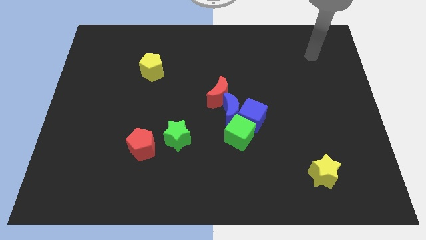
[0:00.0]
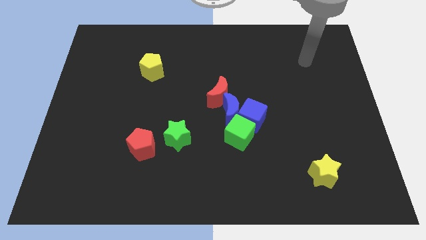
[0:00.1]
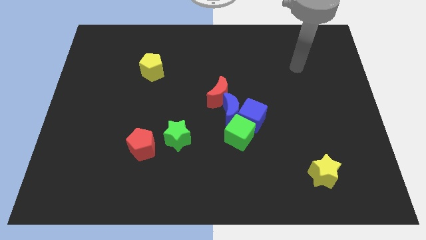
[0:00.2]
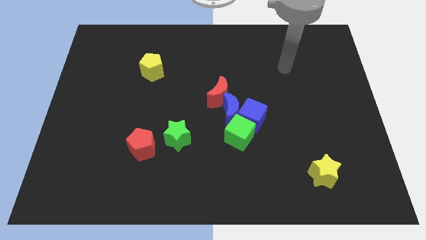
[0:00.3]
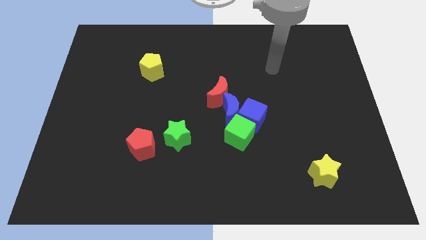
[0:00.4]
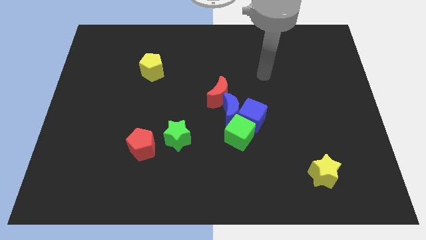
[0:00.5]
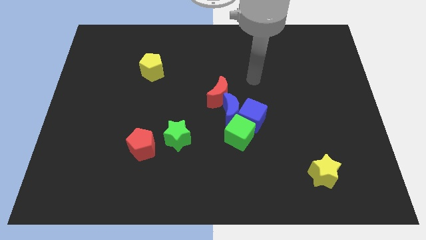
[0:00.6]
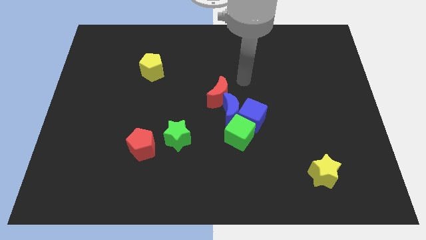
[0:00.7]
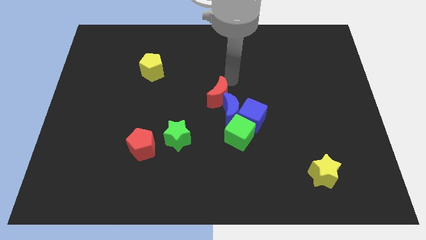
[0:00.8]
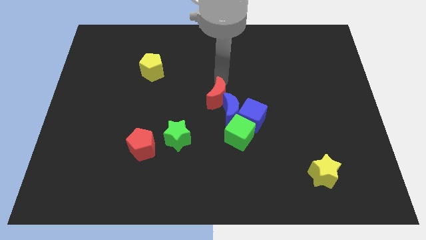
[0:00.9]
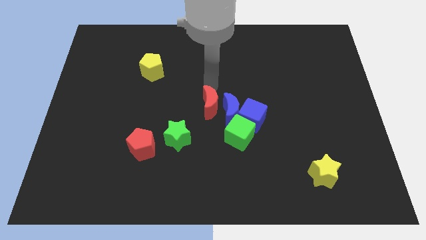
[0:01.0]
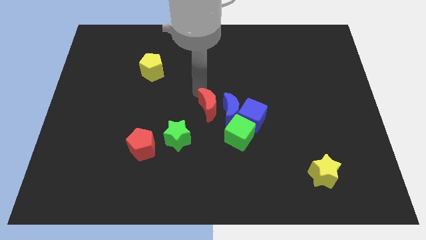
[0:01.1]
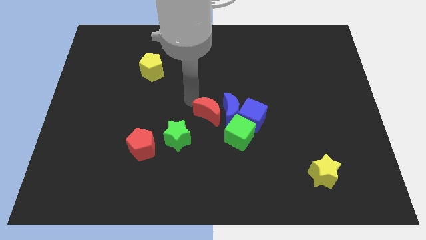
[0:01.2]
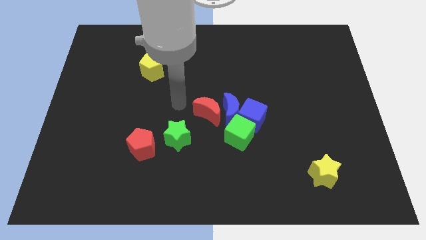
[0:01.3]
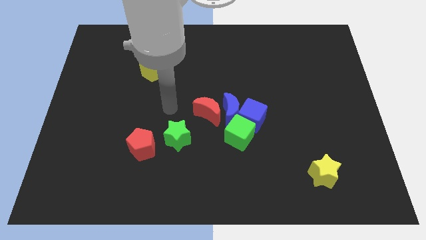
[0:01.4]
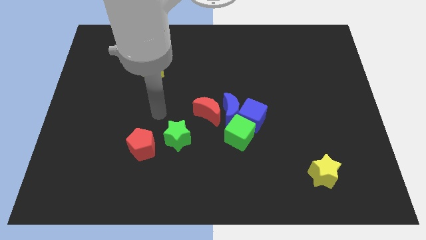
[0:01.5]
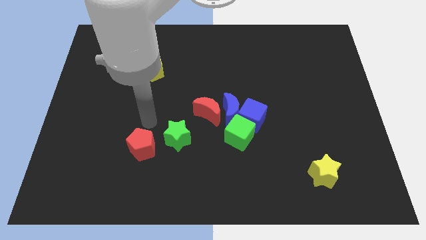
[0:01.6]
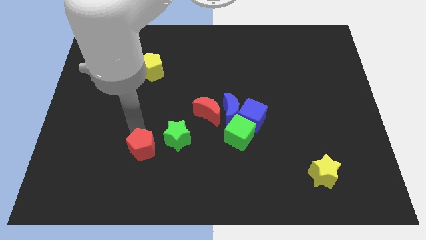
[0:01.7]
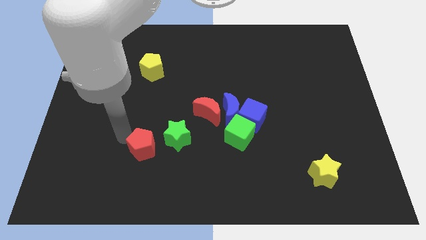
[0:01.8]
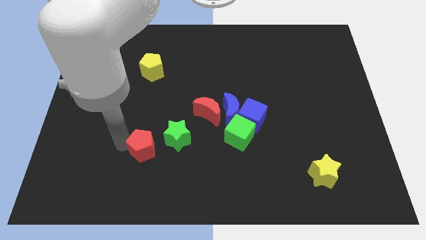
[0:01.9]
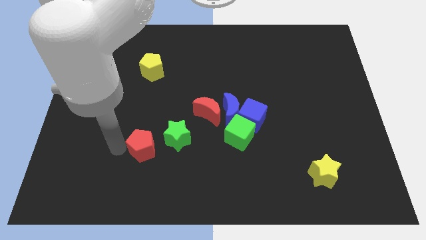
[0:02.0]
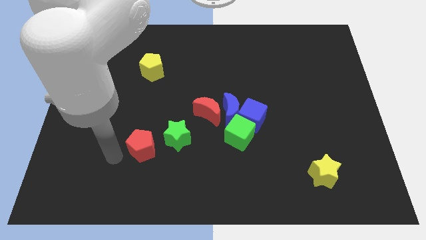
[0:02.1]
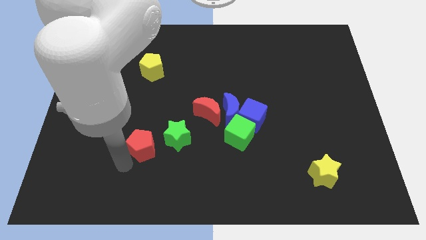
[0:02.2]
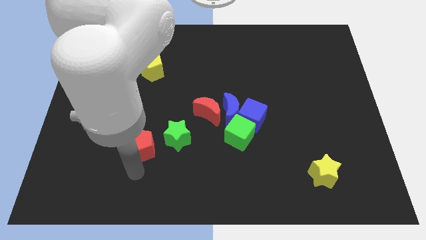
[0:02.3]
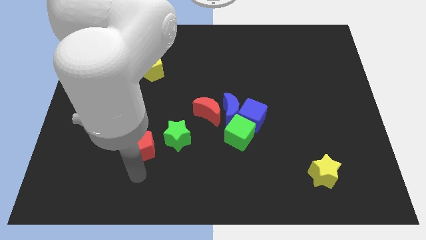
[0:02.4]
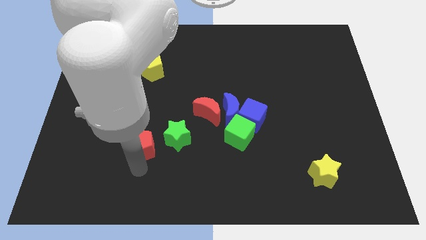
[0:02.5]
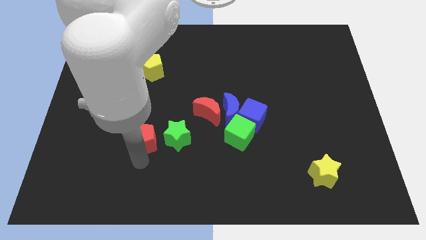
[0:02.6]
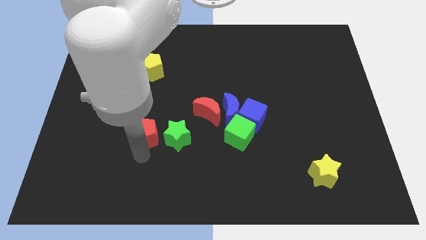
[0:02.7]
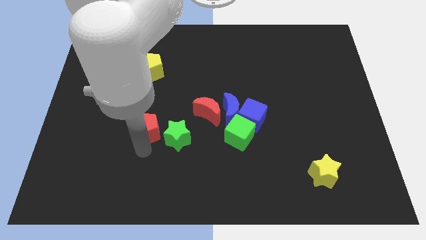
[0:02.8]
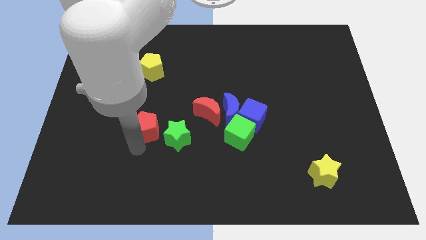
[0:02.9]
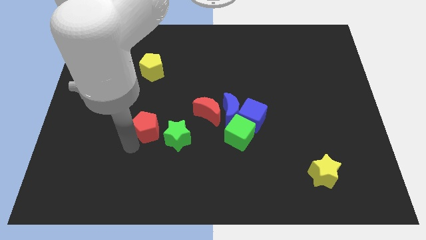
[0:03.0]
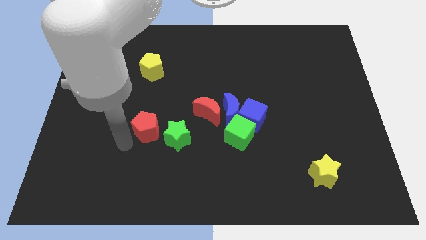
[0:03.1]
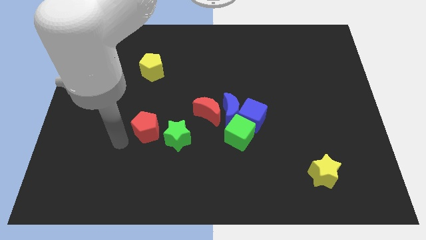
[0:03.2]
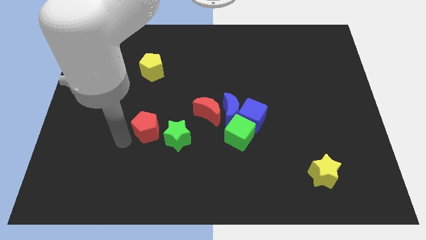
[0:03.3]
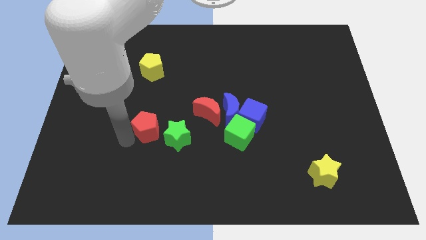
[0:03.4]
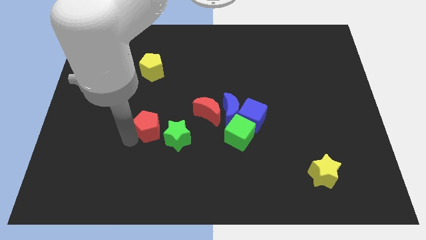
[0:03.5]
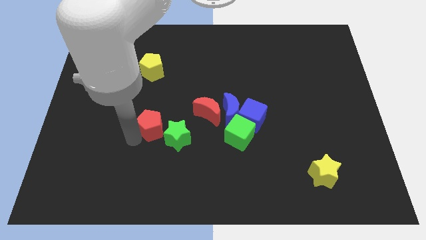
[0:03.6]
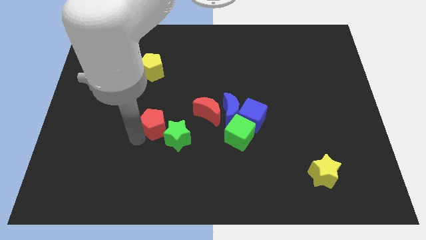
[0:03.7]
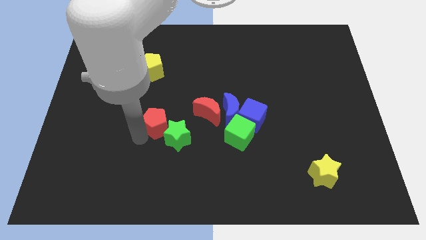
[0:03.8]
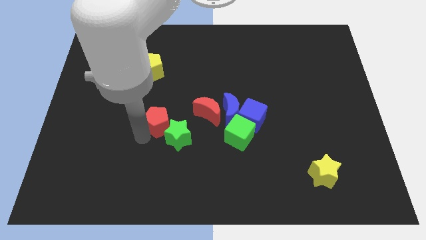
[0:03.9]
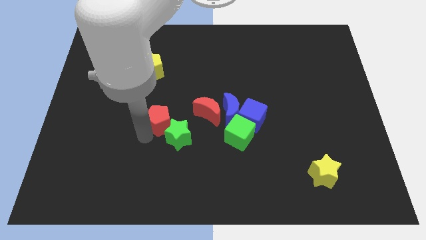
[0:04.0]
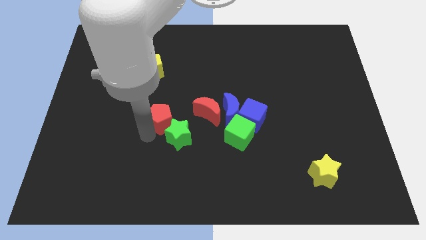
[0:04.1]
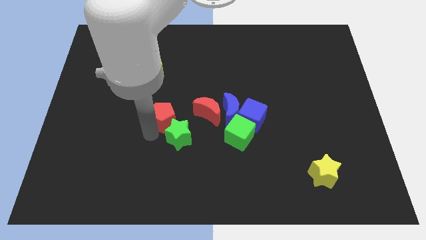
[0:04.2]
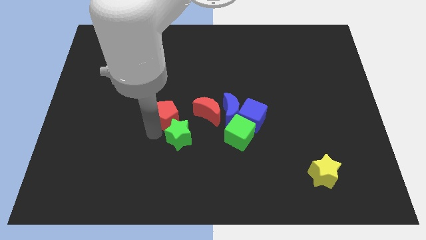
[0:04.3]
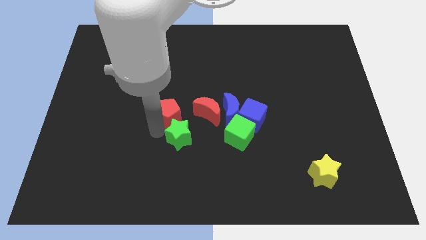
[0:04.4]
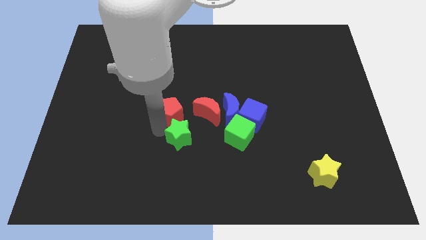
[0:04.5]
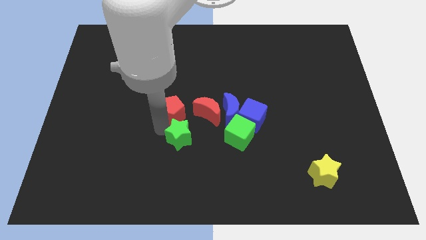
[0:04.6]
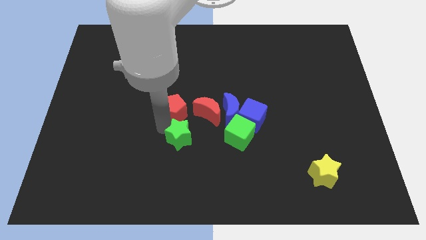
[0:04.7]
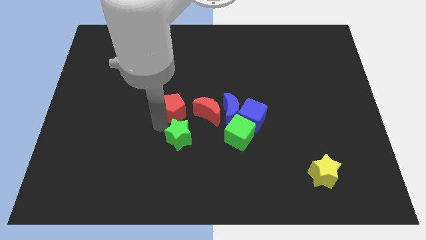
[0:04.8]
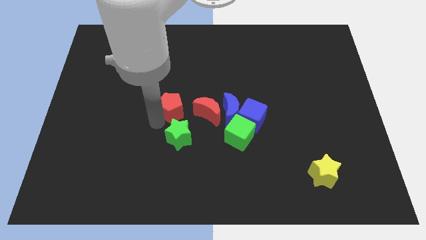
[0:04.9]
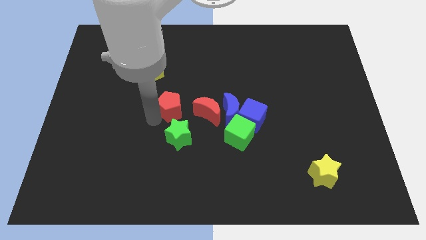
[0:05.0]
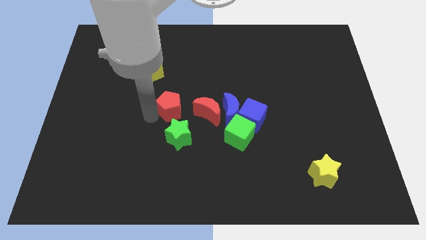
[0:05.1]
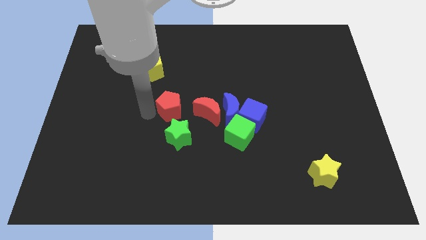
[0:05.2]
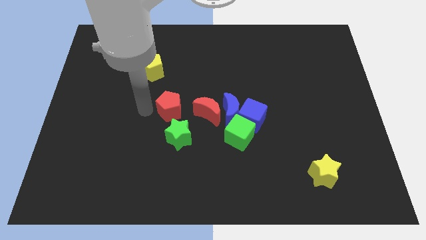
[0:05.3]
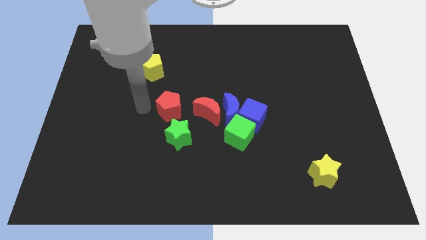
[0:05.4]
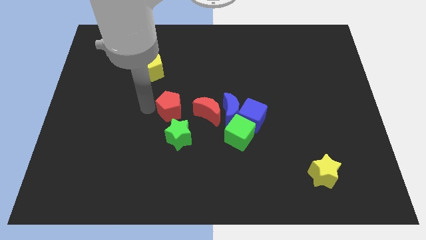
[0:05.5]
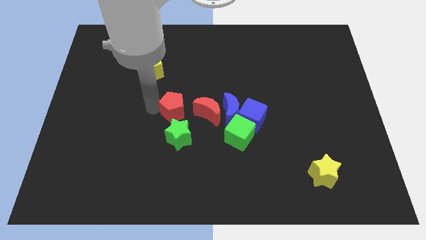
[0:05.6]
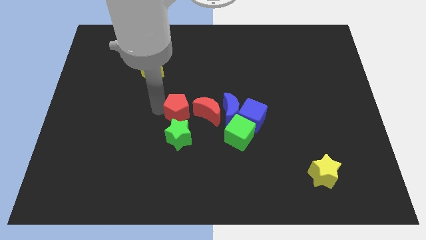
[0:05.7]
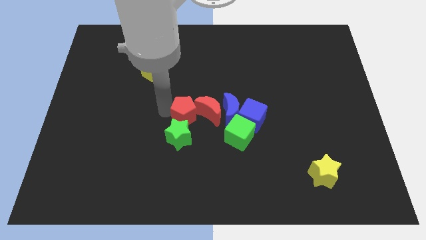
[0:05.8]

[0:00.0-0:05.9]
slide the red pentagon towards the red moon

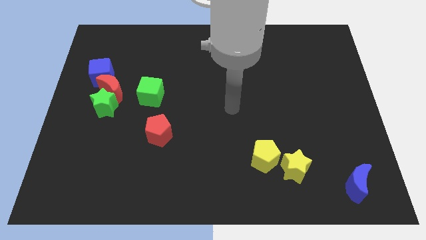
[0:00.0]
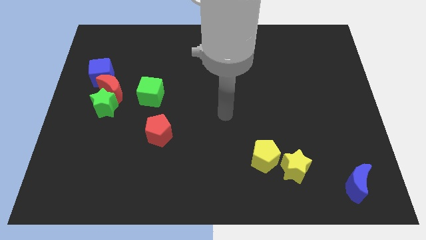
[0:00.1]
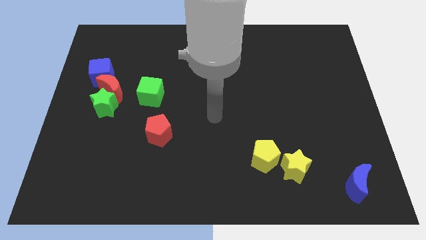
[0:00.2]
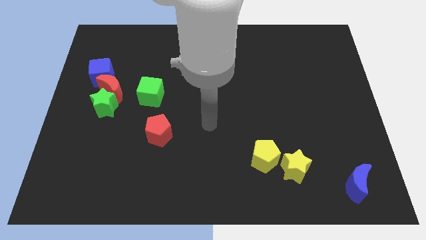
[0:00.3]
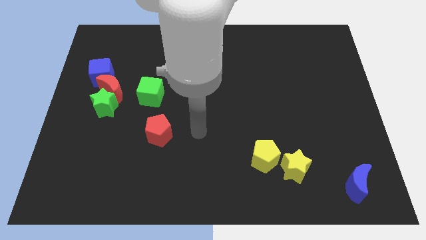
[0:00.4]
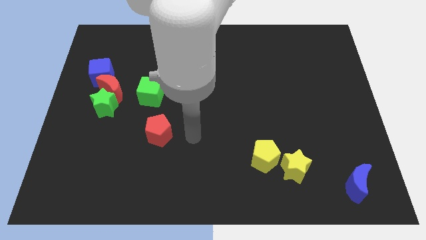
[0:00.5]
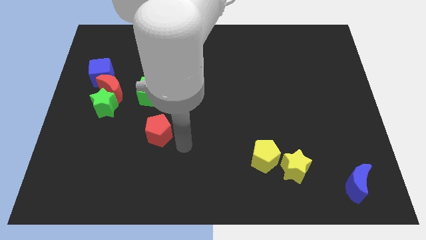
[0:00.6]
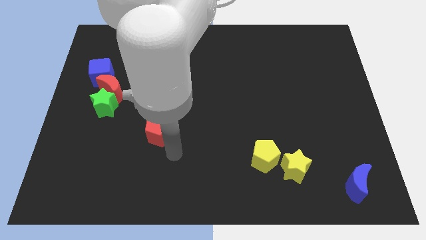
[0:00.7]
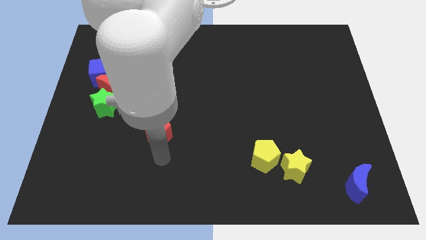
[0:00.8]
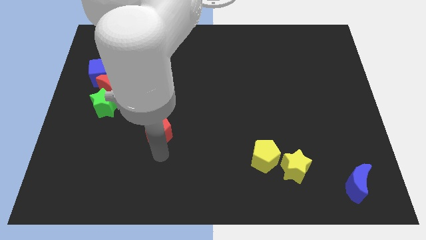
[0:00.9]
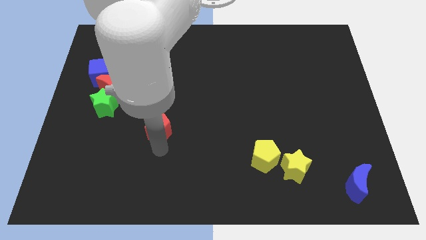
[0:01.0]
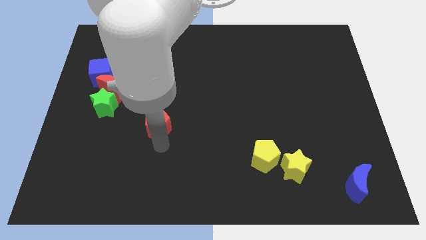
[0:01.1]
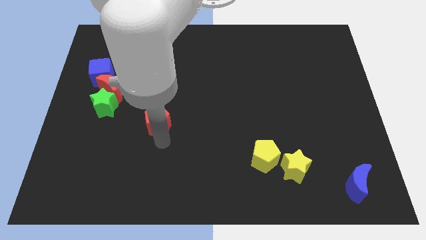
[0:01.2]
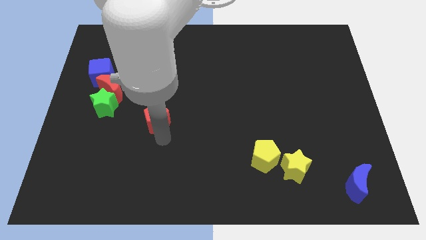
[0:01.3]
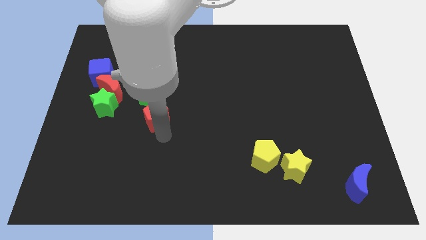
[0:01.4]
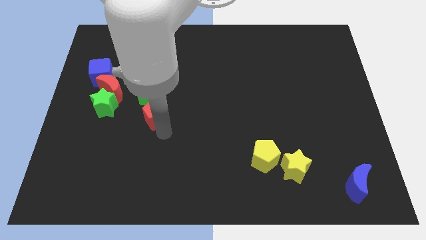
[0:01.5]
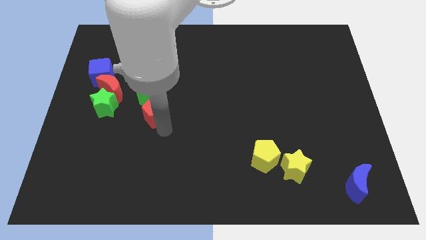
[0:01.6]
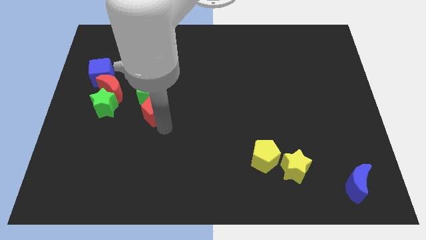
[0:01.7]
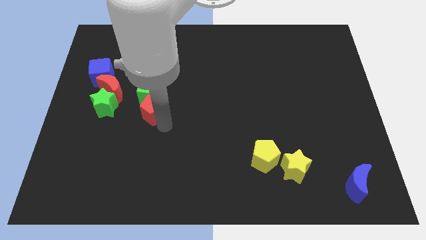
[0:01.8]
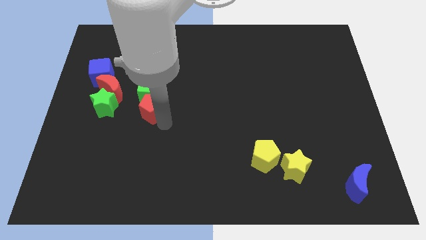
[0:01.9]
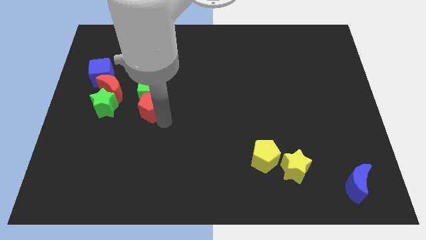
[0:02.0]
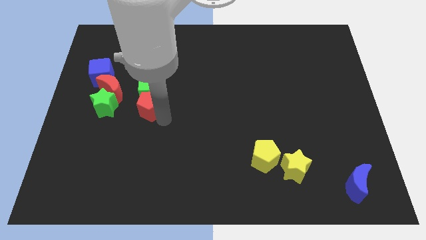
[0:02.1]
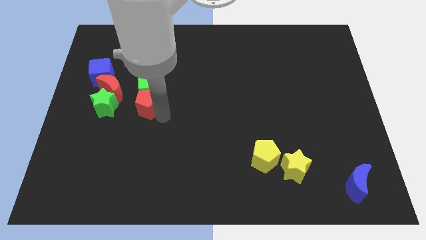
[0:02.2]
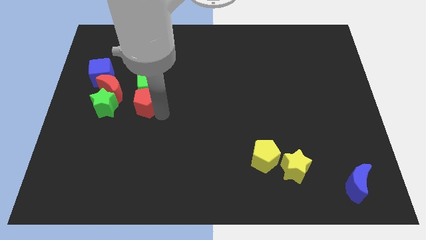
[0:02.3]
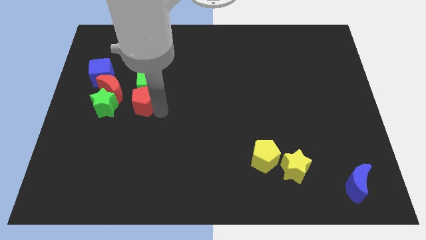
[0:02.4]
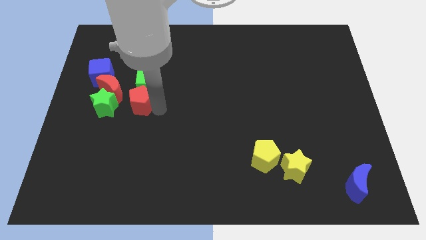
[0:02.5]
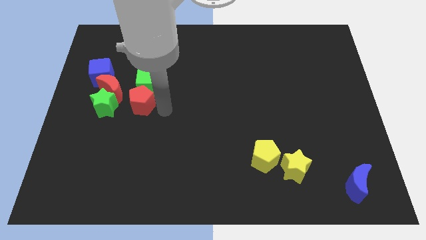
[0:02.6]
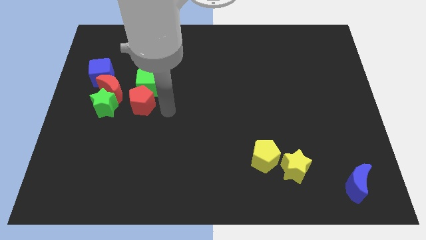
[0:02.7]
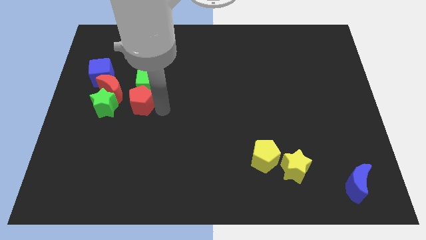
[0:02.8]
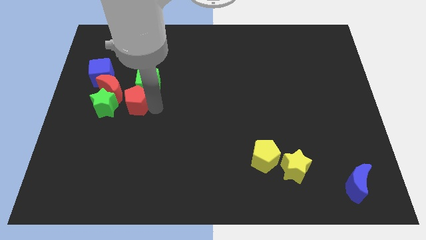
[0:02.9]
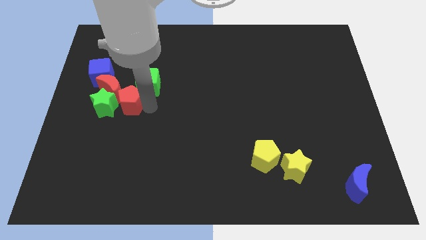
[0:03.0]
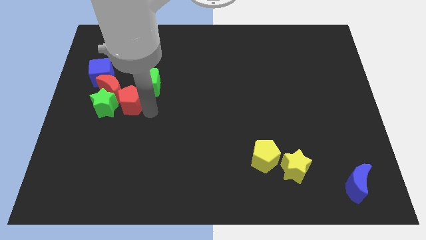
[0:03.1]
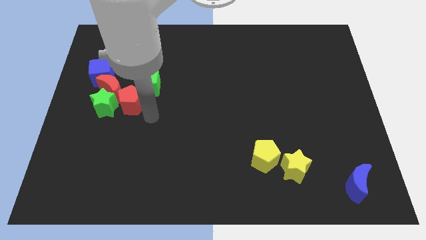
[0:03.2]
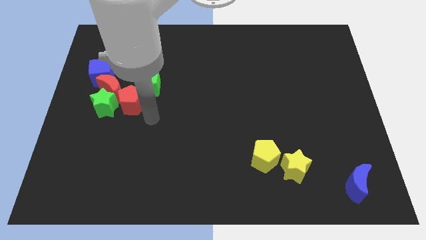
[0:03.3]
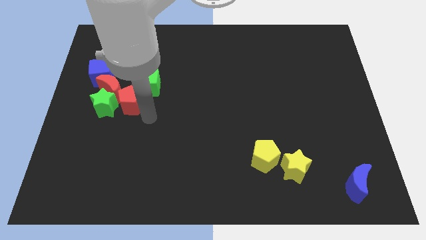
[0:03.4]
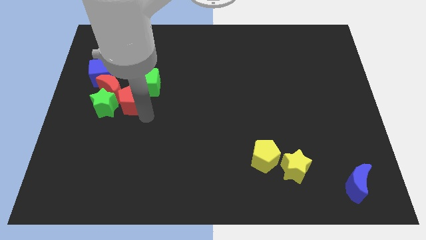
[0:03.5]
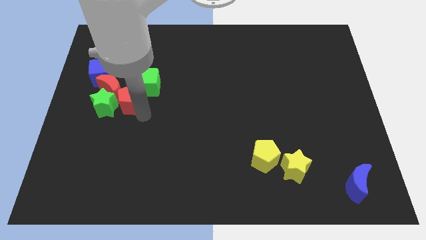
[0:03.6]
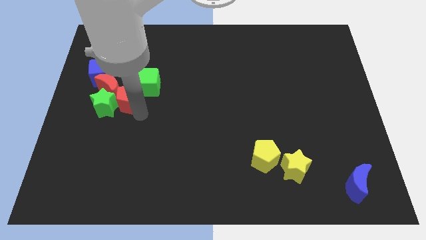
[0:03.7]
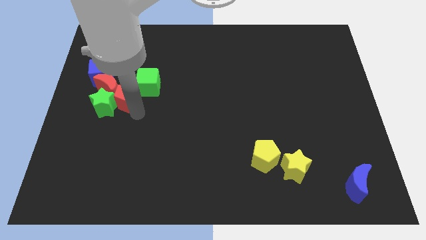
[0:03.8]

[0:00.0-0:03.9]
slide the red pentagon to the red moon
